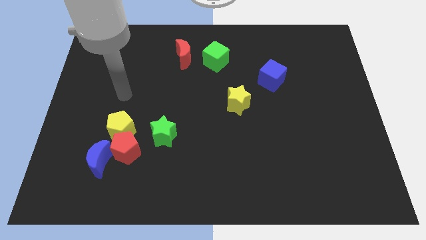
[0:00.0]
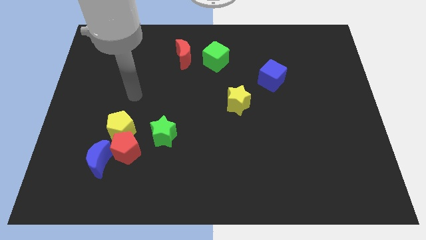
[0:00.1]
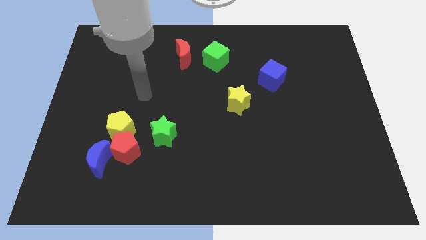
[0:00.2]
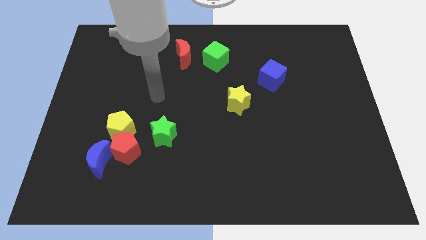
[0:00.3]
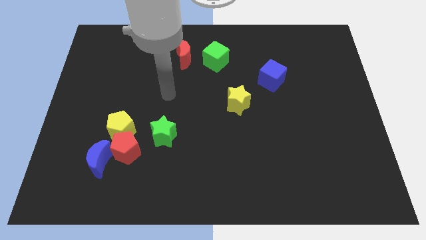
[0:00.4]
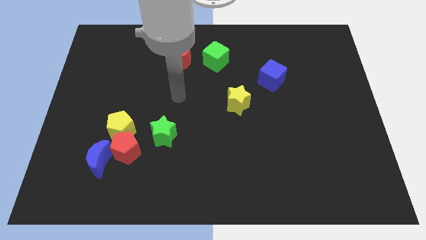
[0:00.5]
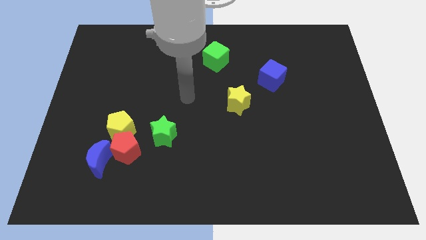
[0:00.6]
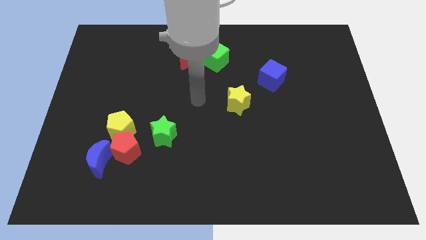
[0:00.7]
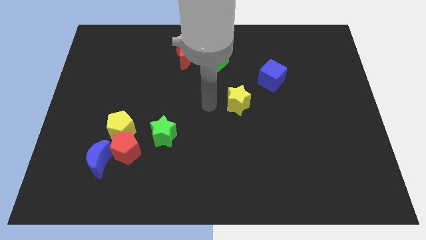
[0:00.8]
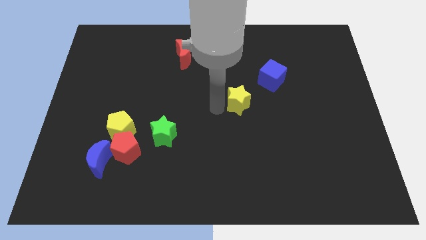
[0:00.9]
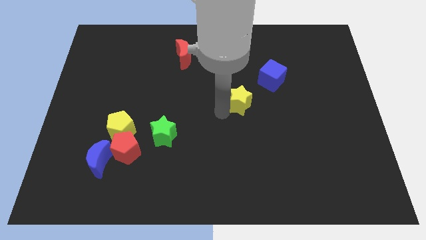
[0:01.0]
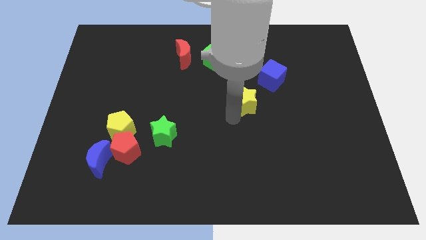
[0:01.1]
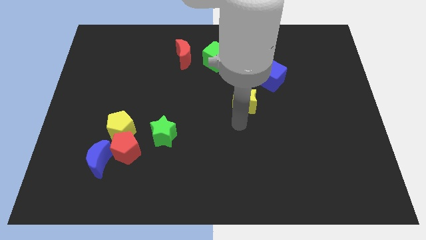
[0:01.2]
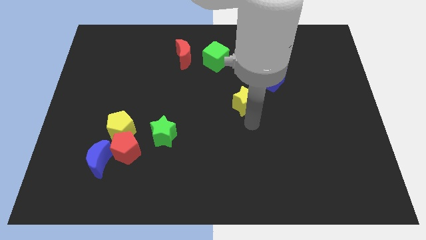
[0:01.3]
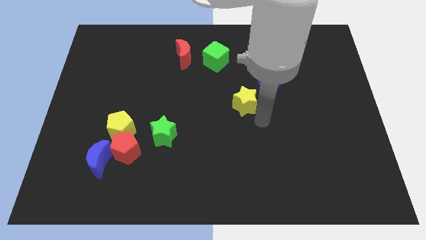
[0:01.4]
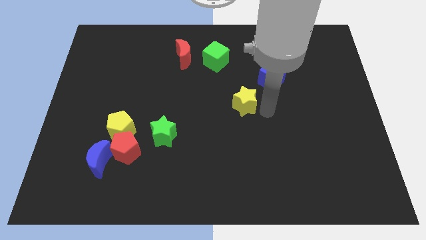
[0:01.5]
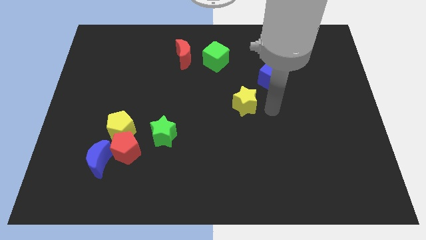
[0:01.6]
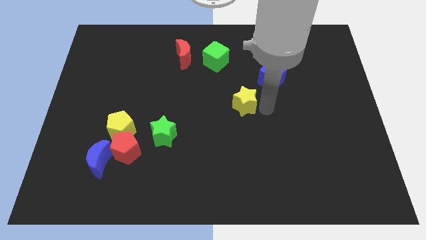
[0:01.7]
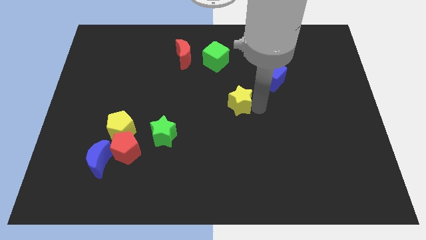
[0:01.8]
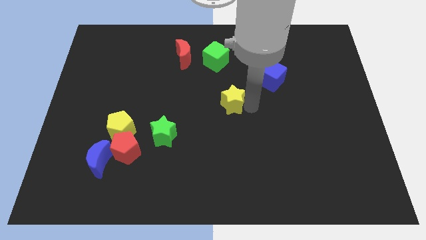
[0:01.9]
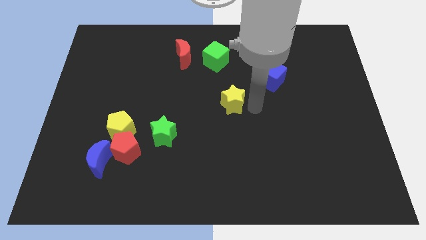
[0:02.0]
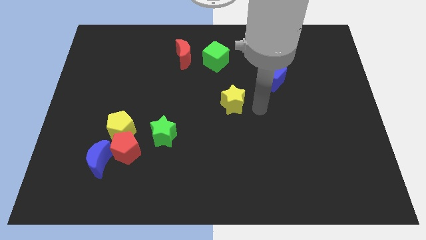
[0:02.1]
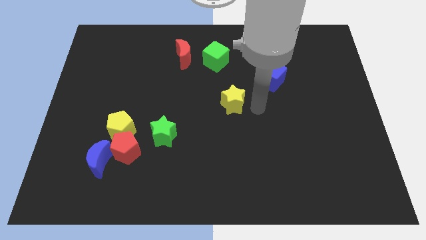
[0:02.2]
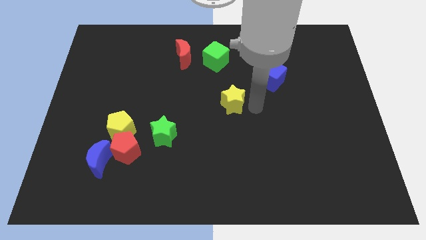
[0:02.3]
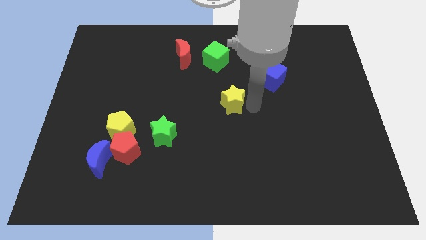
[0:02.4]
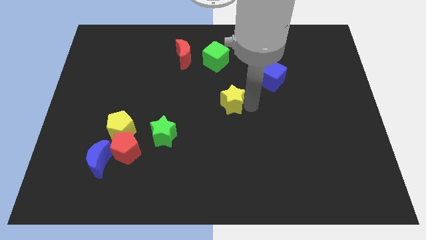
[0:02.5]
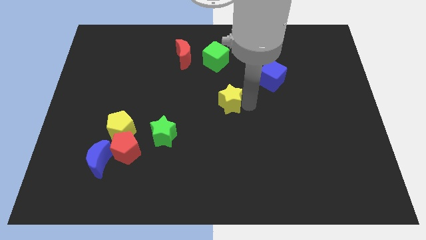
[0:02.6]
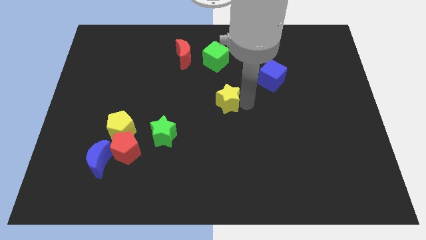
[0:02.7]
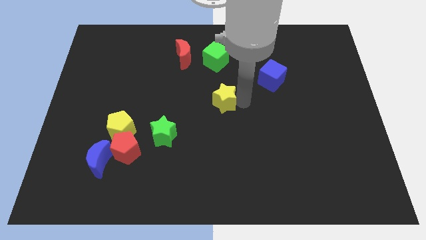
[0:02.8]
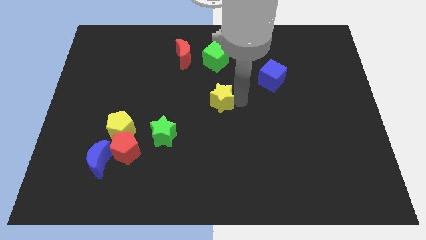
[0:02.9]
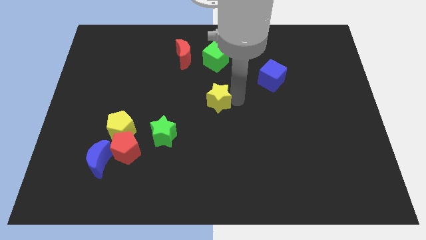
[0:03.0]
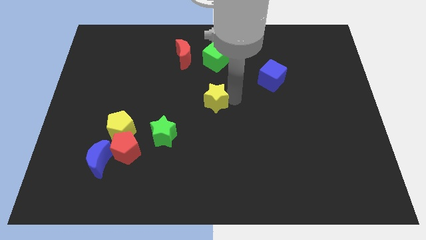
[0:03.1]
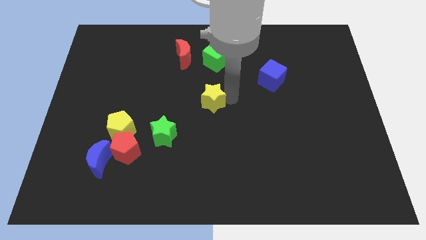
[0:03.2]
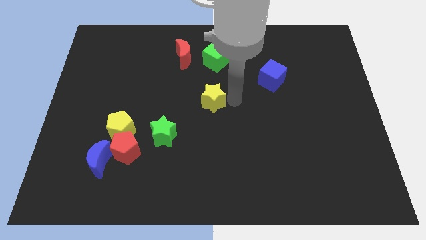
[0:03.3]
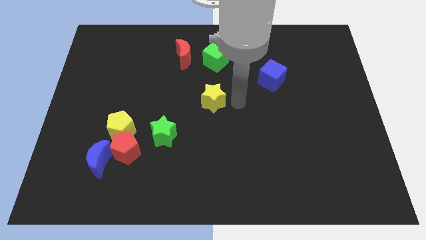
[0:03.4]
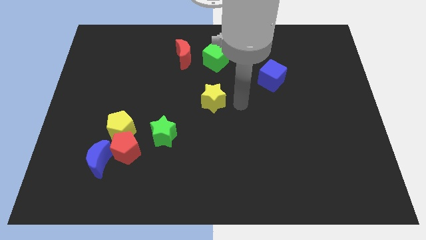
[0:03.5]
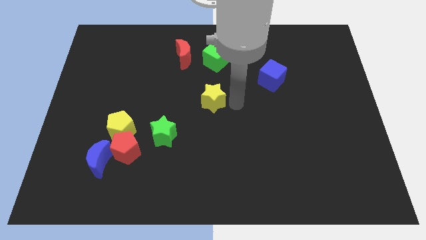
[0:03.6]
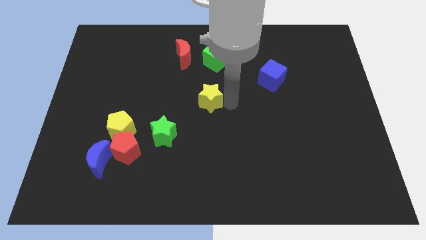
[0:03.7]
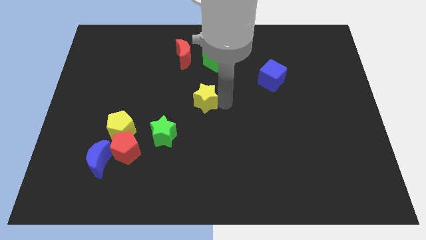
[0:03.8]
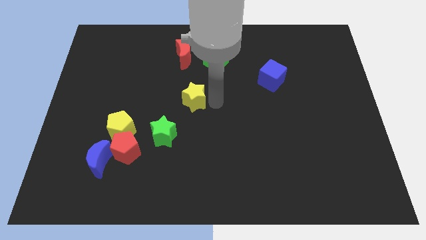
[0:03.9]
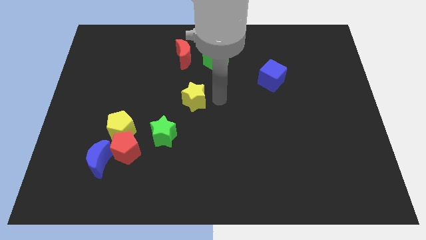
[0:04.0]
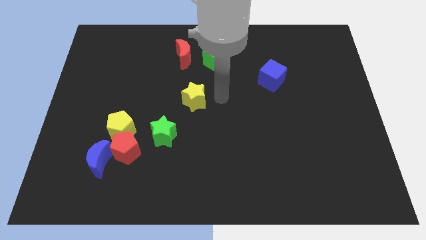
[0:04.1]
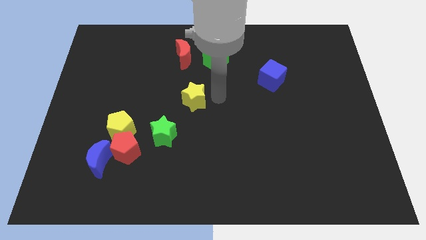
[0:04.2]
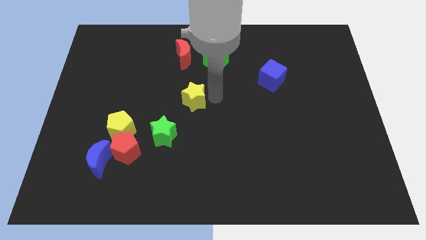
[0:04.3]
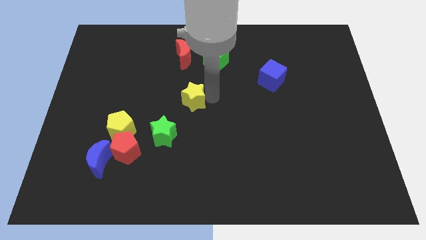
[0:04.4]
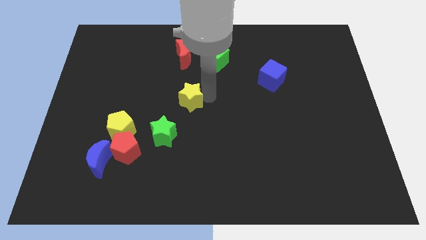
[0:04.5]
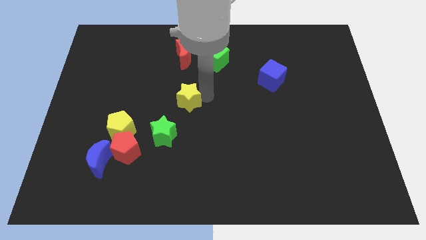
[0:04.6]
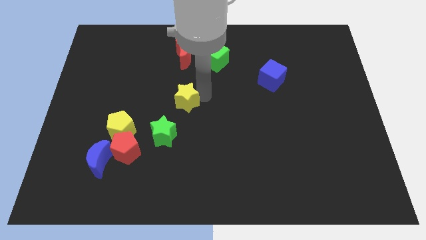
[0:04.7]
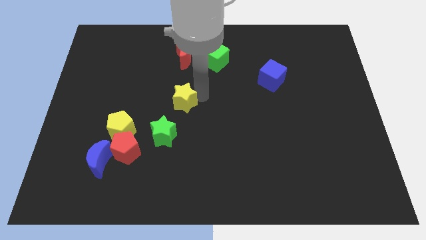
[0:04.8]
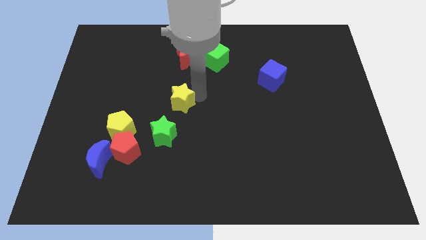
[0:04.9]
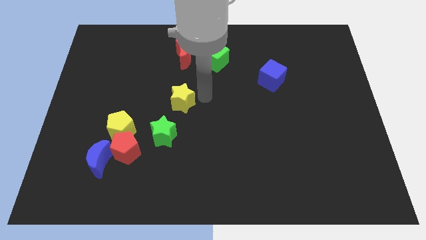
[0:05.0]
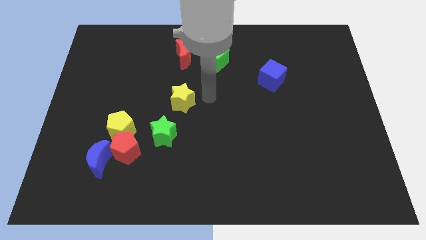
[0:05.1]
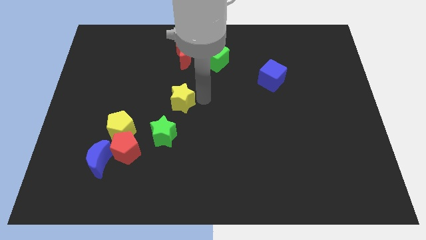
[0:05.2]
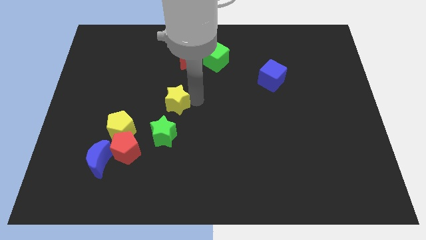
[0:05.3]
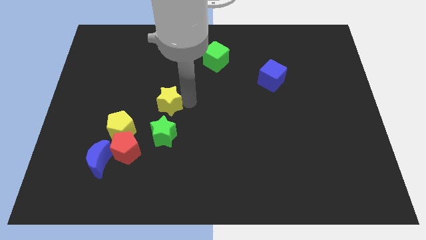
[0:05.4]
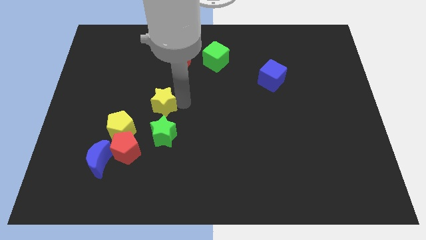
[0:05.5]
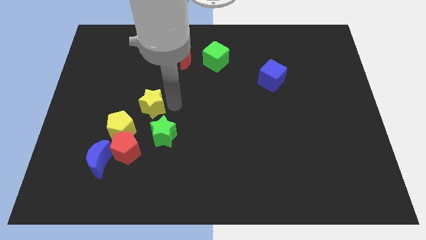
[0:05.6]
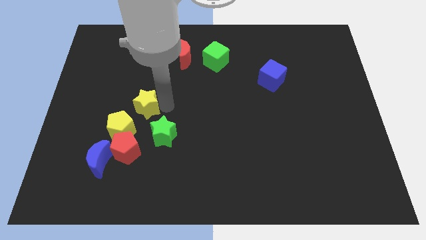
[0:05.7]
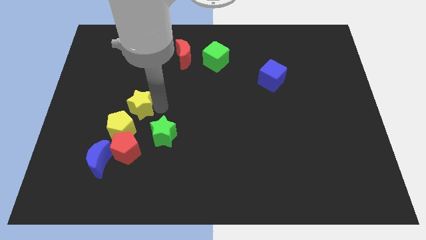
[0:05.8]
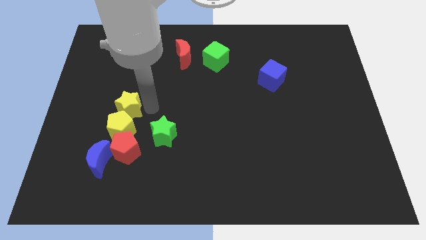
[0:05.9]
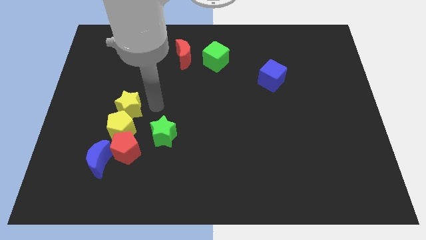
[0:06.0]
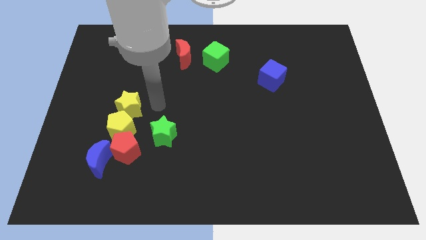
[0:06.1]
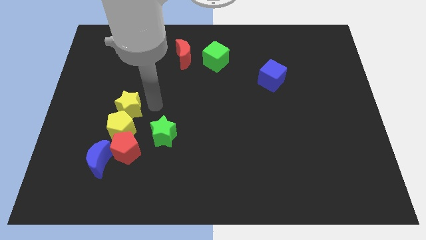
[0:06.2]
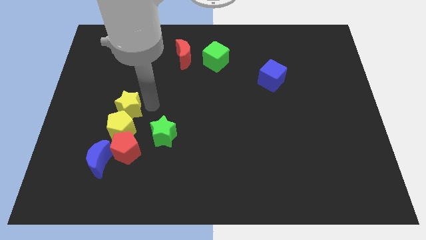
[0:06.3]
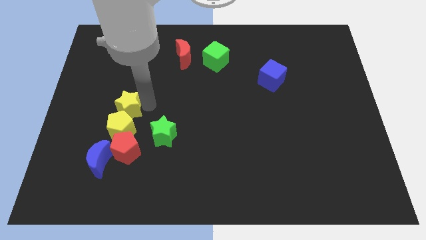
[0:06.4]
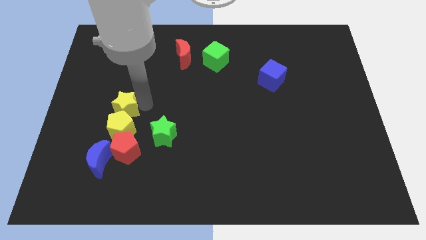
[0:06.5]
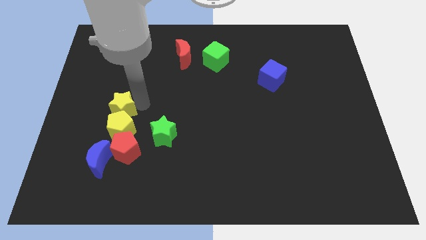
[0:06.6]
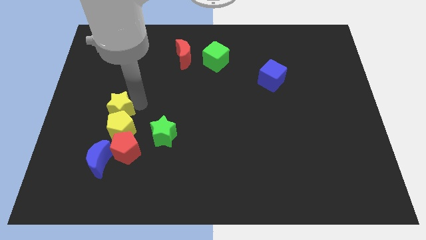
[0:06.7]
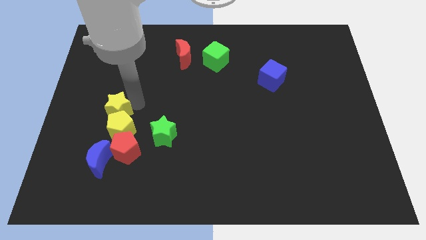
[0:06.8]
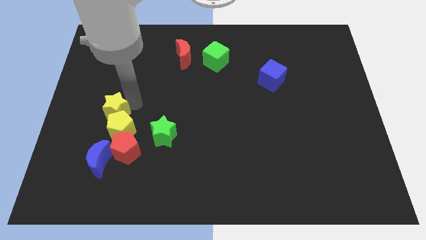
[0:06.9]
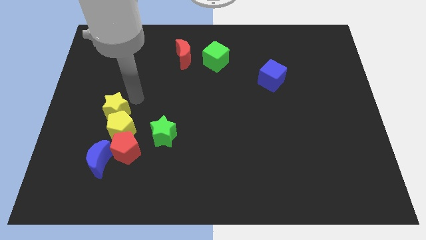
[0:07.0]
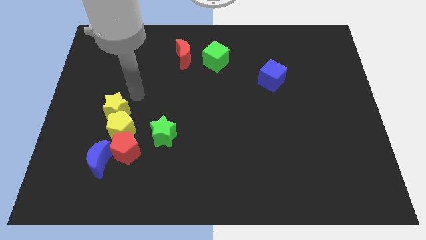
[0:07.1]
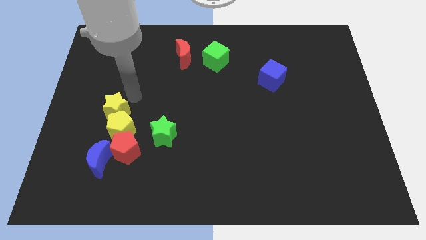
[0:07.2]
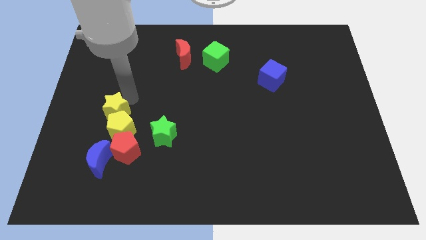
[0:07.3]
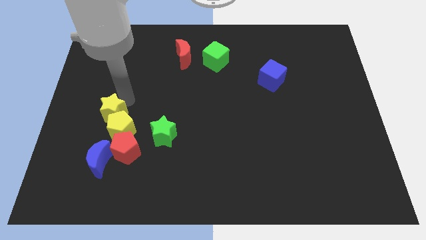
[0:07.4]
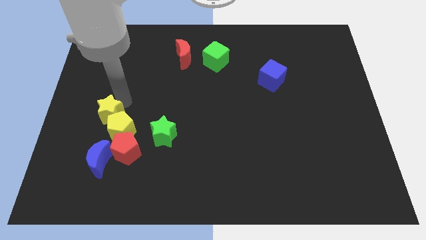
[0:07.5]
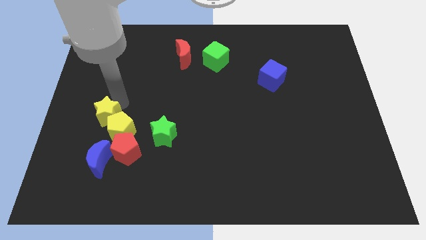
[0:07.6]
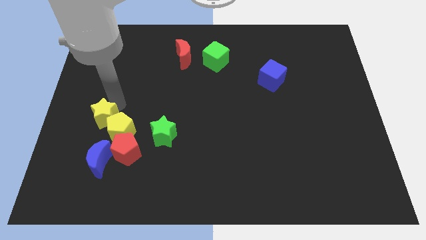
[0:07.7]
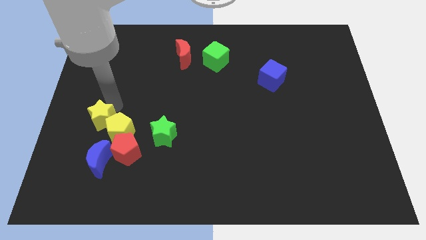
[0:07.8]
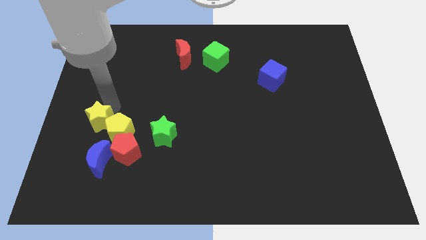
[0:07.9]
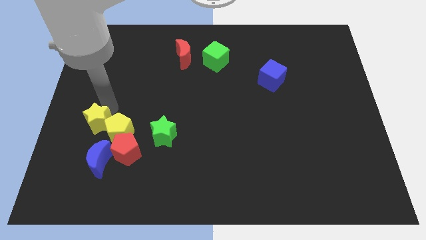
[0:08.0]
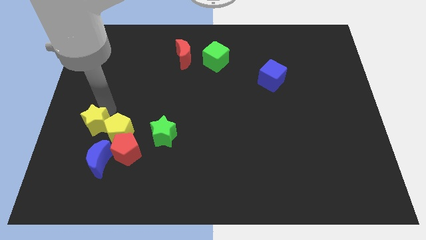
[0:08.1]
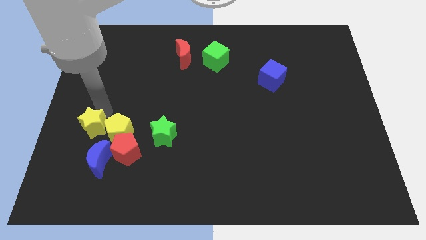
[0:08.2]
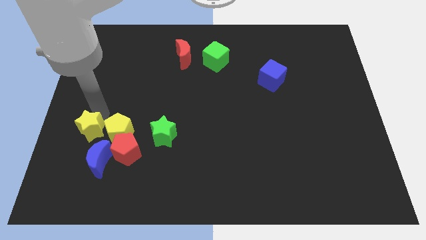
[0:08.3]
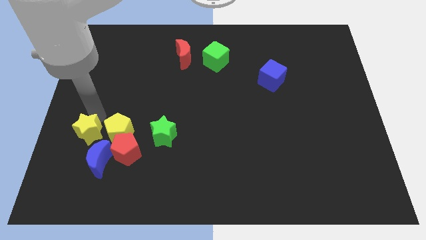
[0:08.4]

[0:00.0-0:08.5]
push the yellow star to the bottom left side of the yellow pentagon
